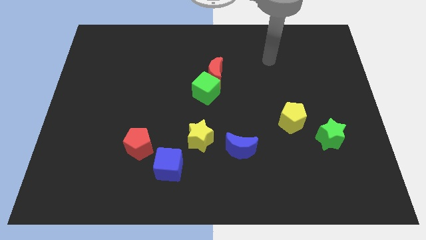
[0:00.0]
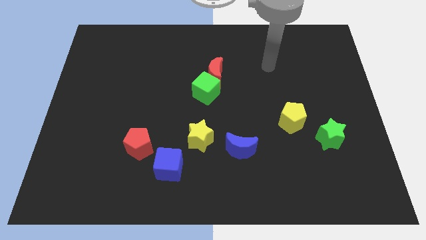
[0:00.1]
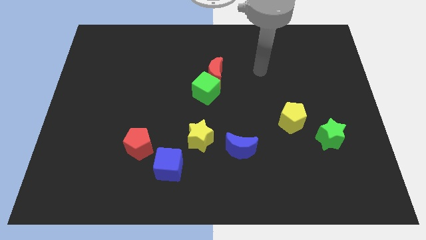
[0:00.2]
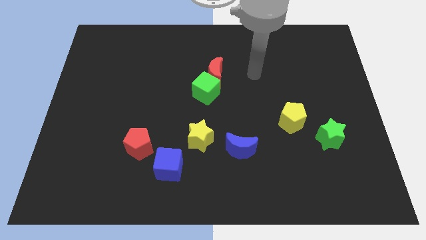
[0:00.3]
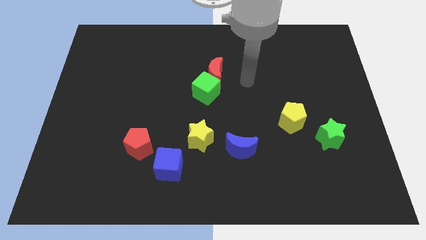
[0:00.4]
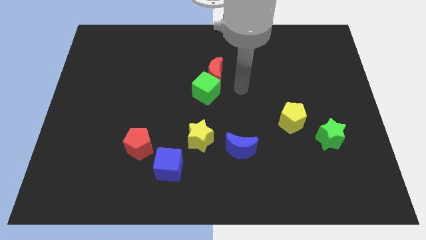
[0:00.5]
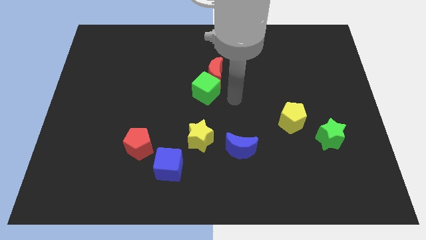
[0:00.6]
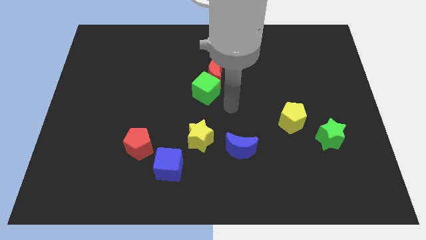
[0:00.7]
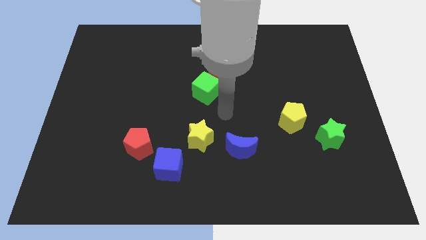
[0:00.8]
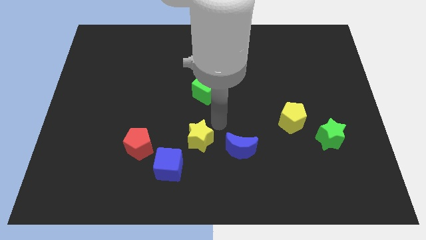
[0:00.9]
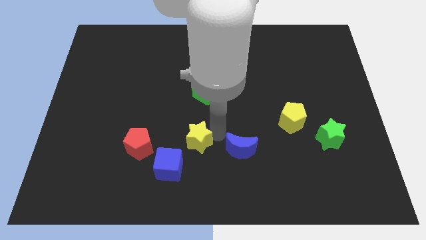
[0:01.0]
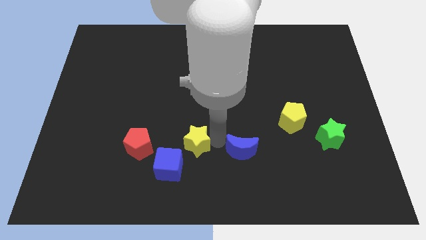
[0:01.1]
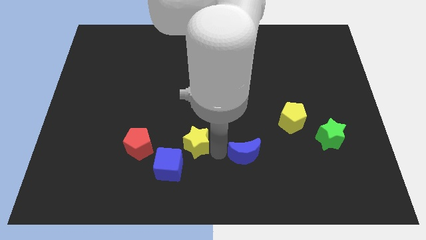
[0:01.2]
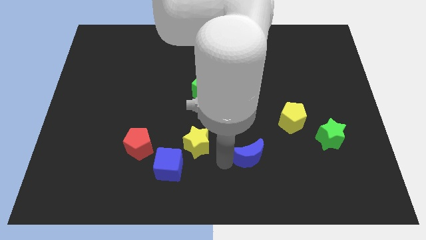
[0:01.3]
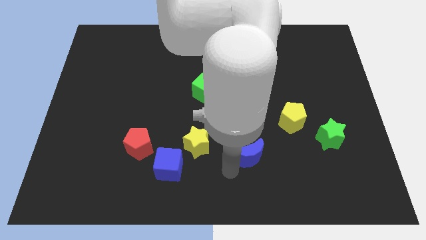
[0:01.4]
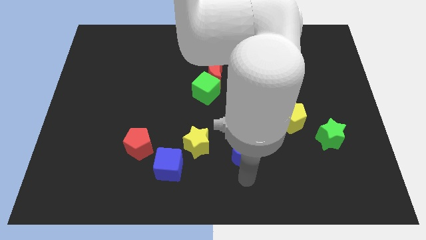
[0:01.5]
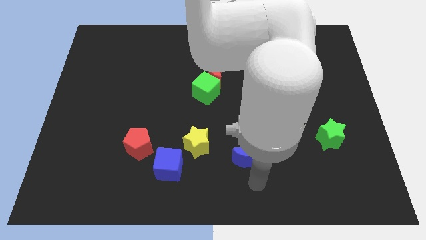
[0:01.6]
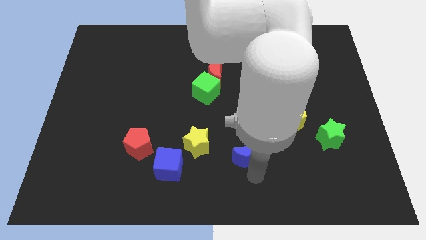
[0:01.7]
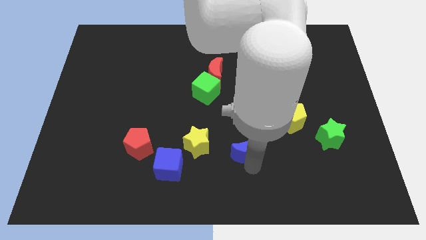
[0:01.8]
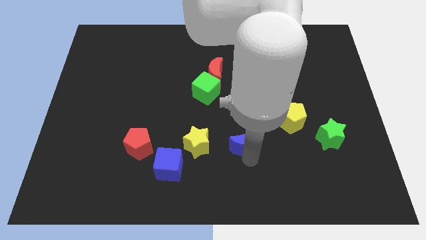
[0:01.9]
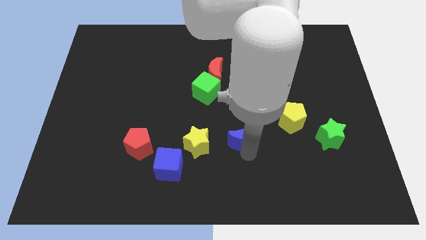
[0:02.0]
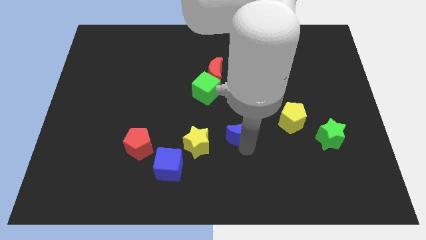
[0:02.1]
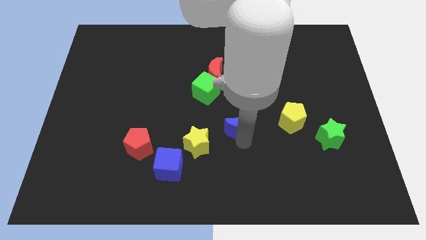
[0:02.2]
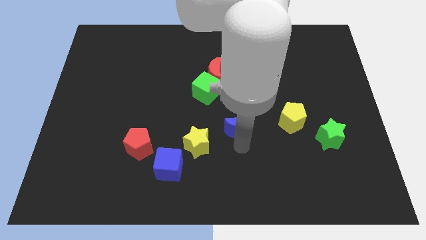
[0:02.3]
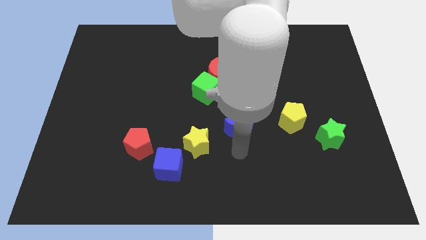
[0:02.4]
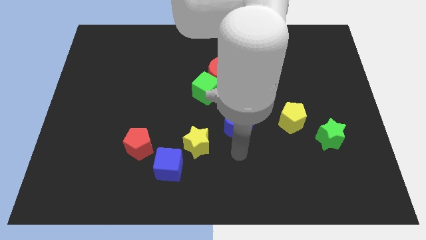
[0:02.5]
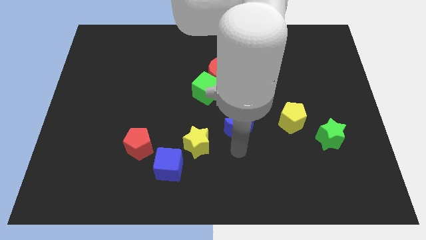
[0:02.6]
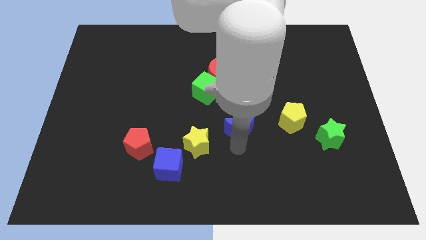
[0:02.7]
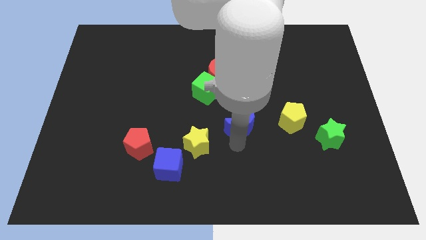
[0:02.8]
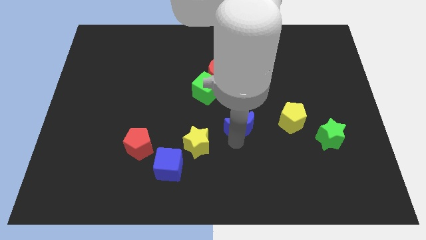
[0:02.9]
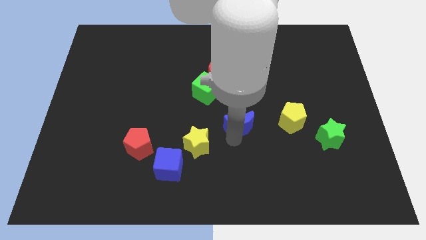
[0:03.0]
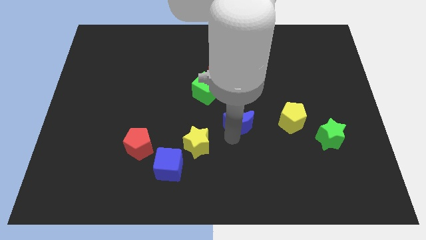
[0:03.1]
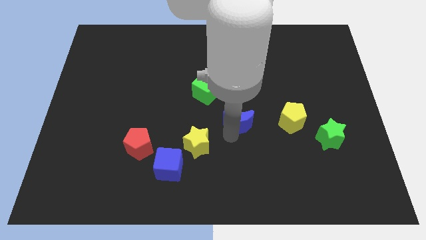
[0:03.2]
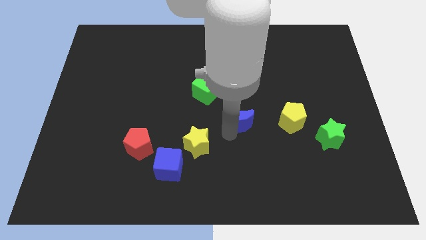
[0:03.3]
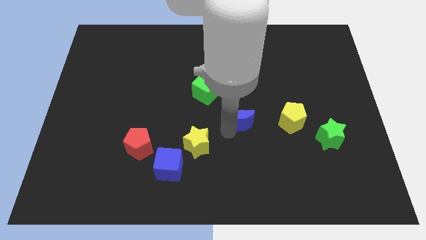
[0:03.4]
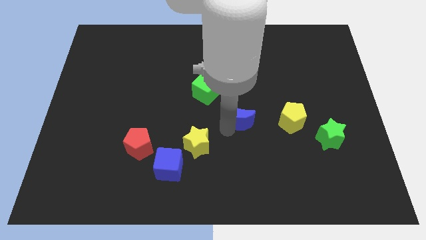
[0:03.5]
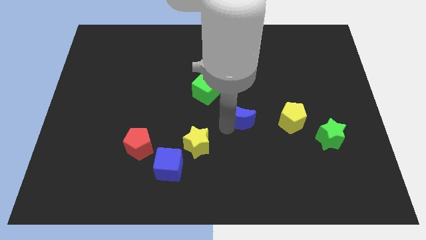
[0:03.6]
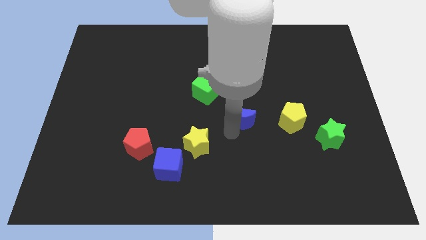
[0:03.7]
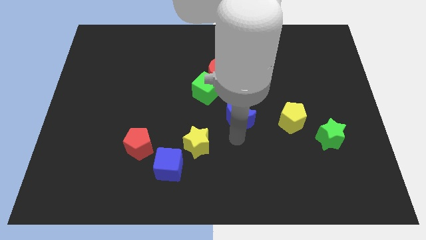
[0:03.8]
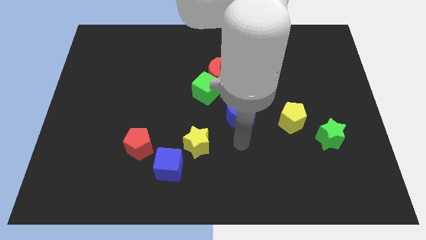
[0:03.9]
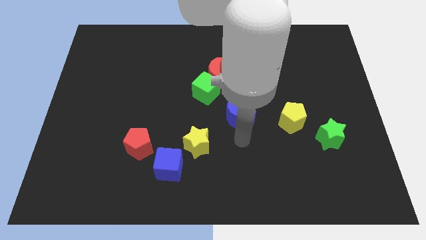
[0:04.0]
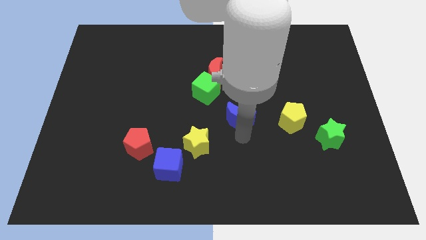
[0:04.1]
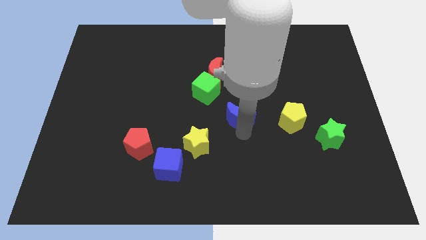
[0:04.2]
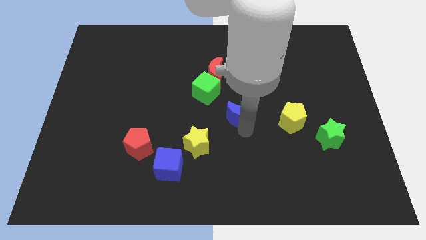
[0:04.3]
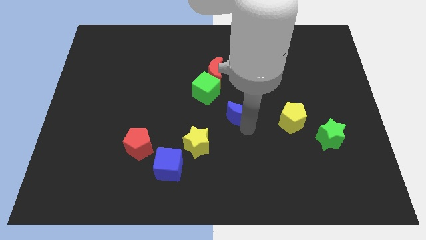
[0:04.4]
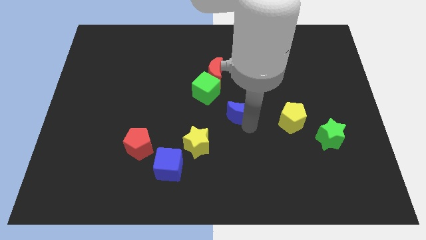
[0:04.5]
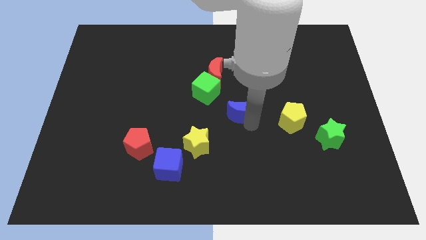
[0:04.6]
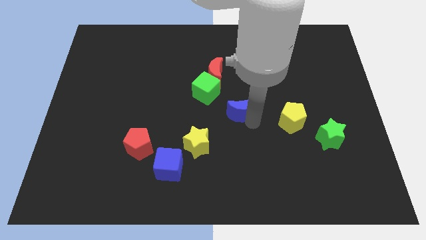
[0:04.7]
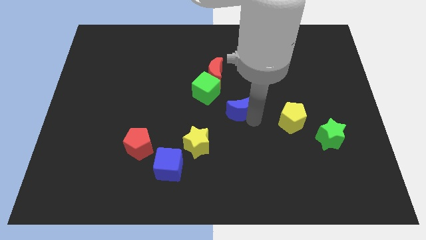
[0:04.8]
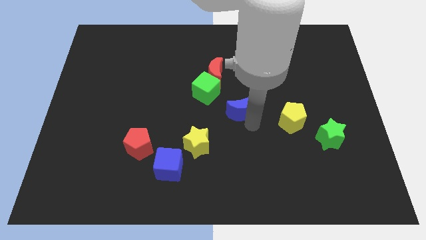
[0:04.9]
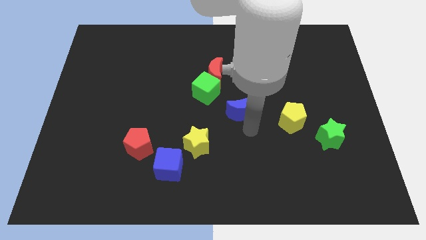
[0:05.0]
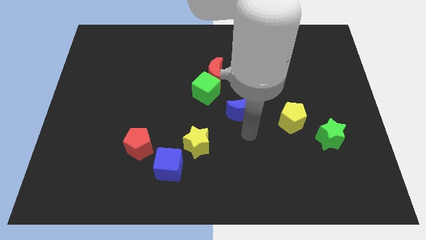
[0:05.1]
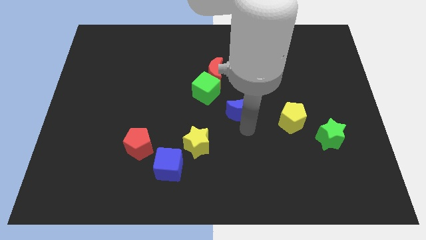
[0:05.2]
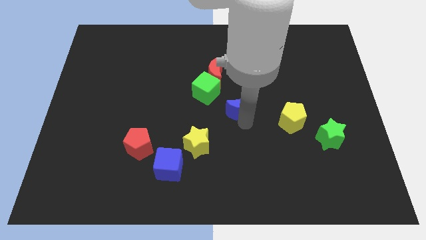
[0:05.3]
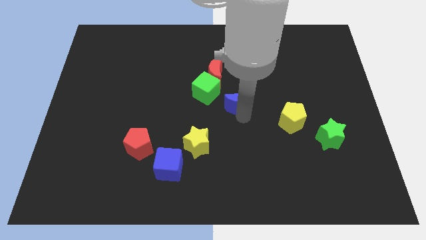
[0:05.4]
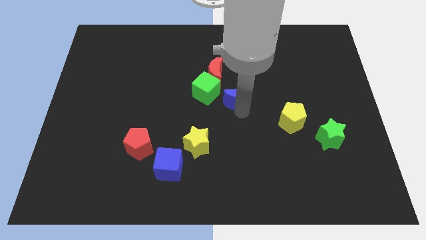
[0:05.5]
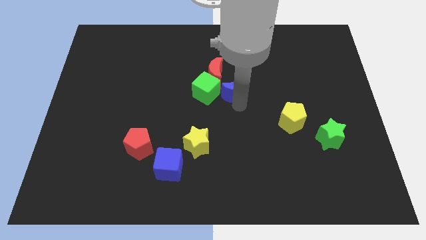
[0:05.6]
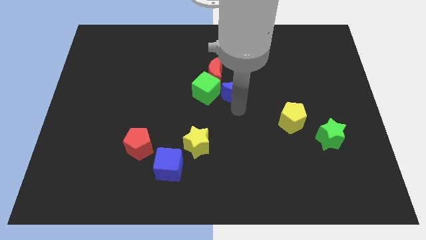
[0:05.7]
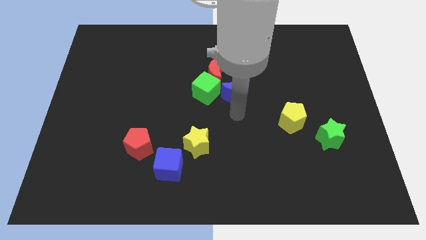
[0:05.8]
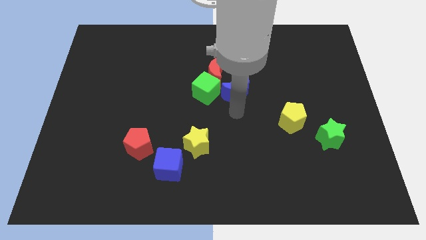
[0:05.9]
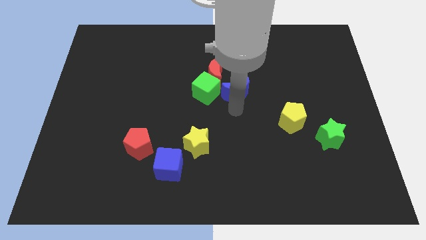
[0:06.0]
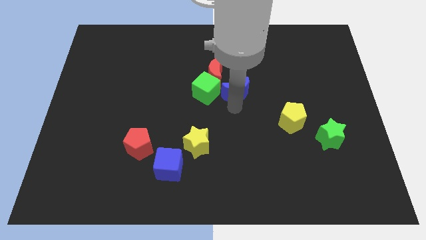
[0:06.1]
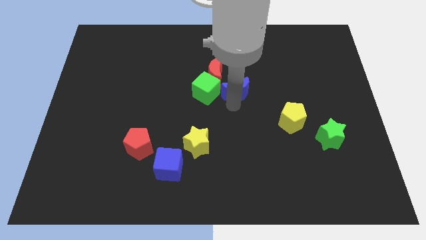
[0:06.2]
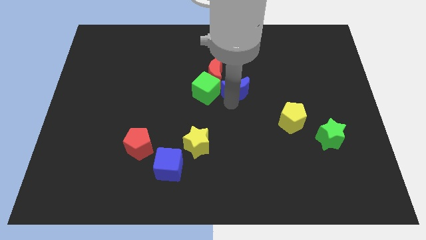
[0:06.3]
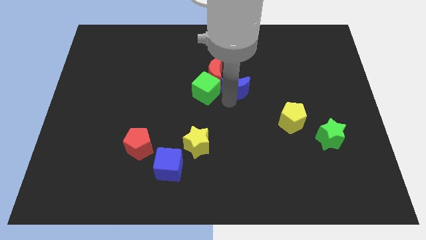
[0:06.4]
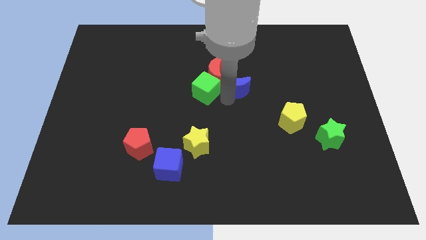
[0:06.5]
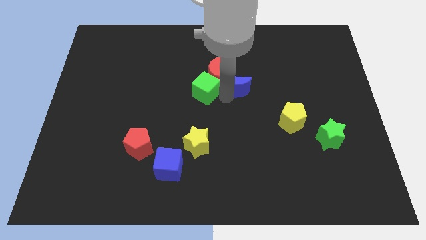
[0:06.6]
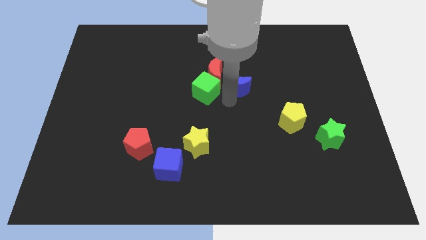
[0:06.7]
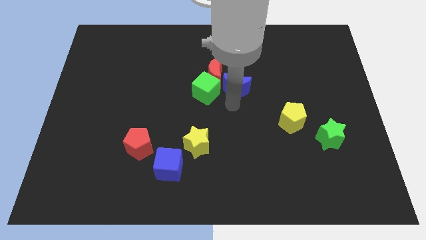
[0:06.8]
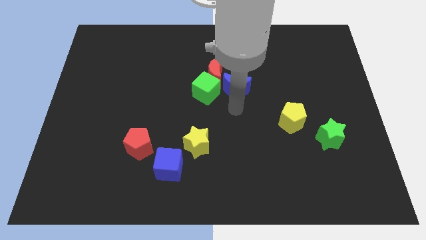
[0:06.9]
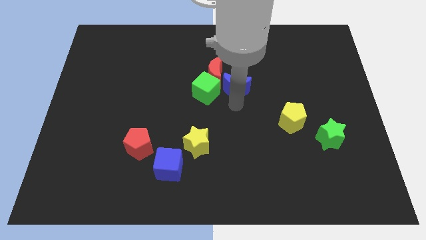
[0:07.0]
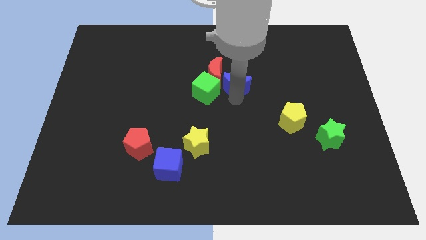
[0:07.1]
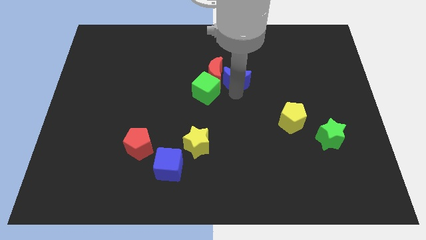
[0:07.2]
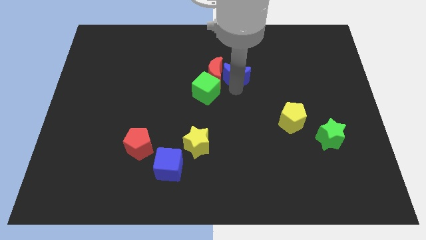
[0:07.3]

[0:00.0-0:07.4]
push the blue moon to the top right side of the red moon
